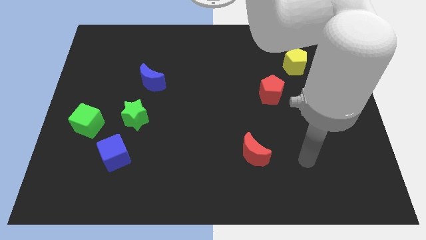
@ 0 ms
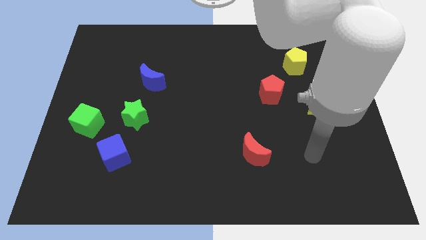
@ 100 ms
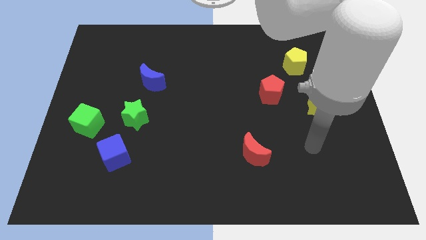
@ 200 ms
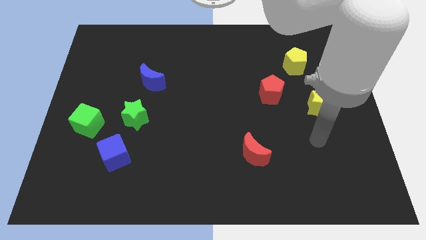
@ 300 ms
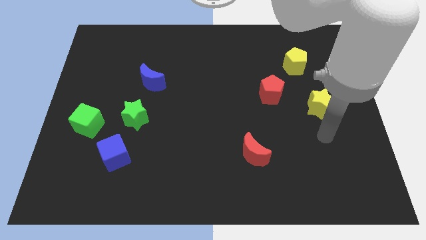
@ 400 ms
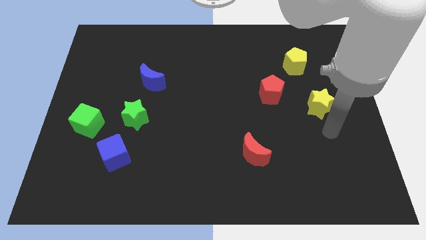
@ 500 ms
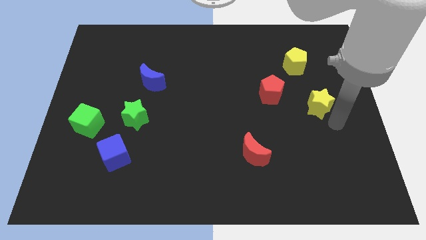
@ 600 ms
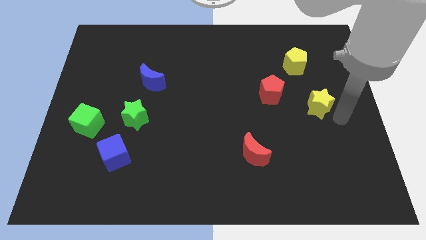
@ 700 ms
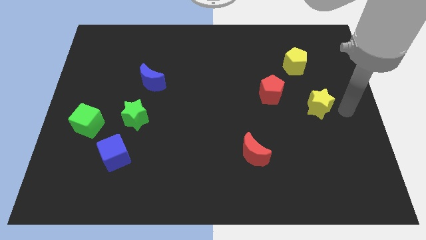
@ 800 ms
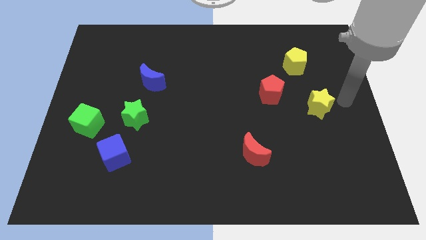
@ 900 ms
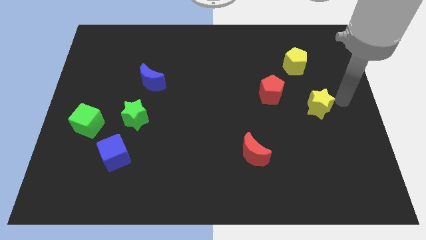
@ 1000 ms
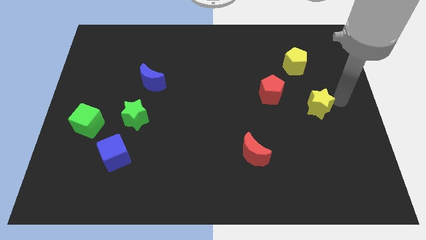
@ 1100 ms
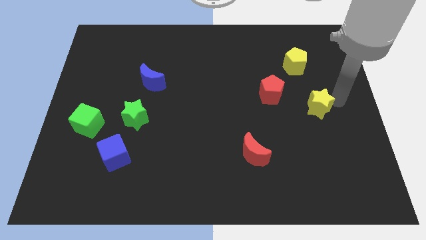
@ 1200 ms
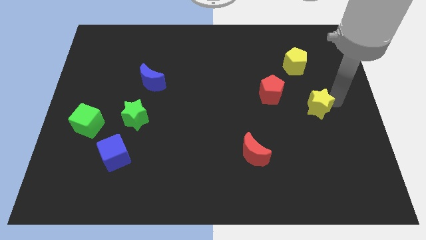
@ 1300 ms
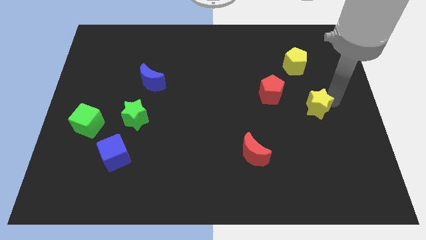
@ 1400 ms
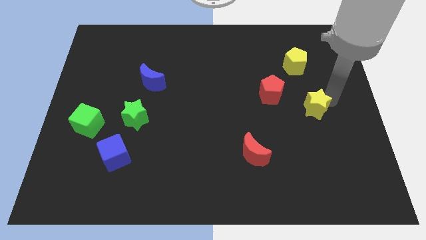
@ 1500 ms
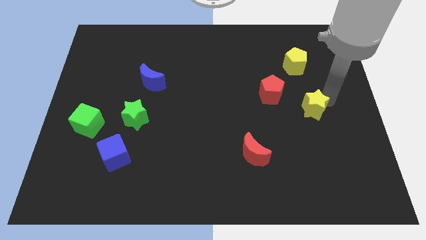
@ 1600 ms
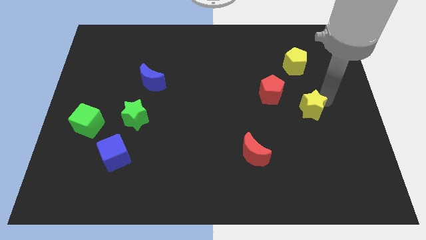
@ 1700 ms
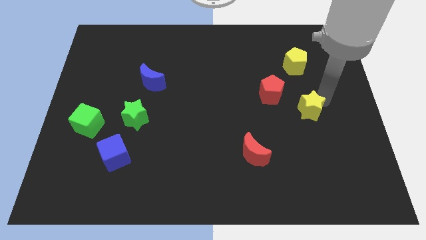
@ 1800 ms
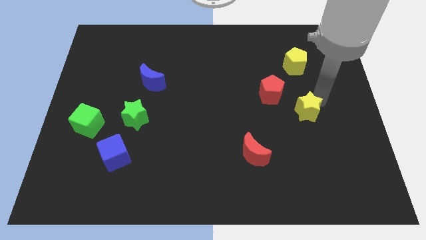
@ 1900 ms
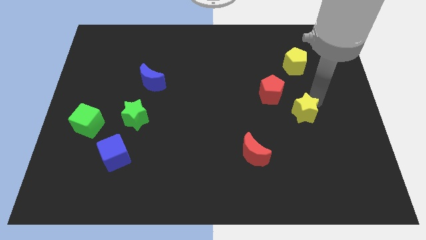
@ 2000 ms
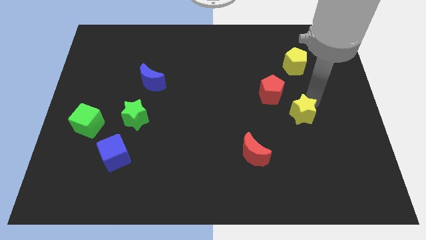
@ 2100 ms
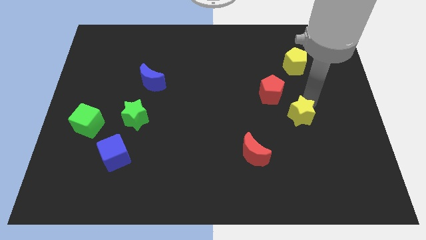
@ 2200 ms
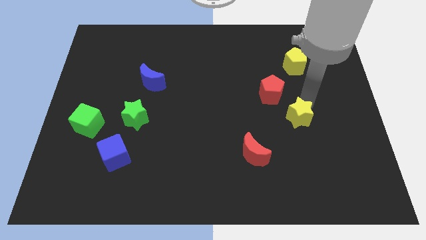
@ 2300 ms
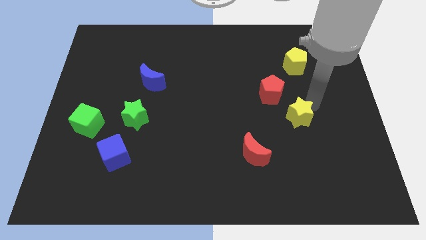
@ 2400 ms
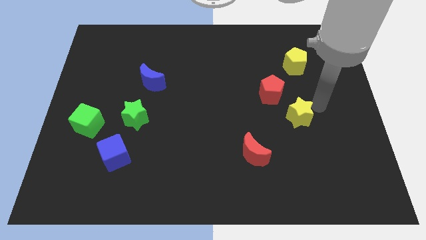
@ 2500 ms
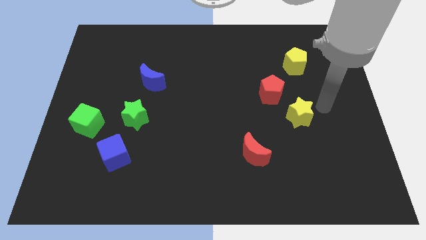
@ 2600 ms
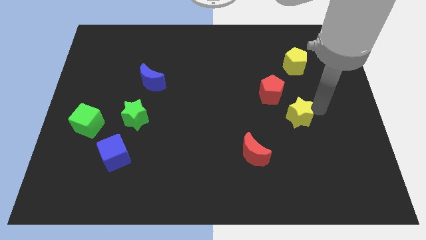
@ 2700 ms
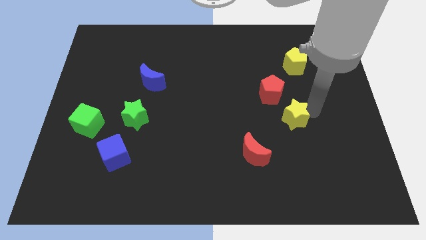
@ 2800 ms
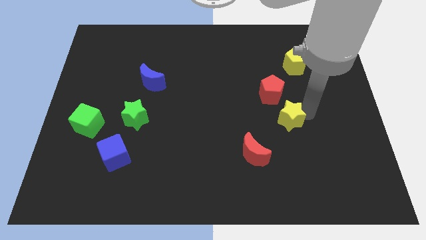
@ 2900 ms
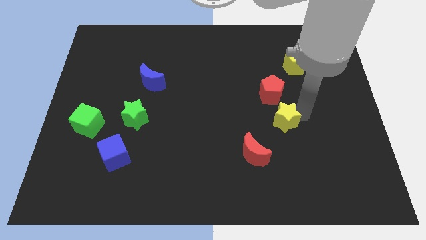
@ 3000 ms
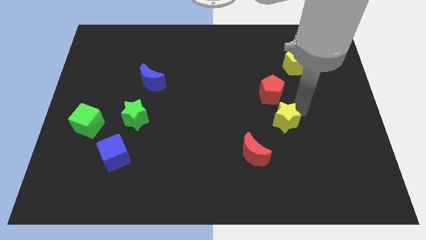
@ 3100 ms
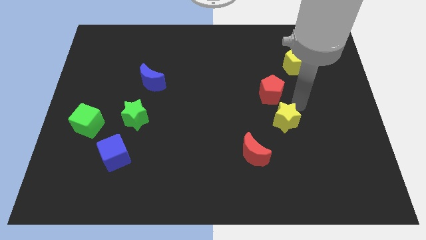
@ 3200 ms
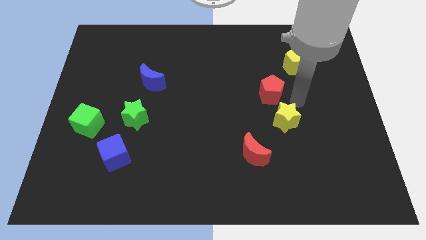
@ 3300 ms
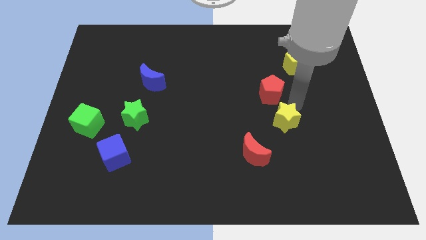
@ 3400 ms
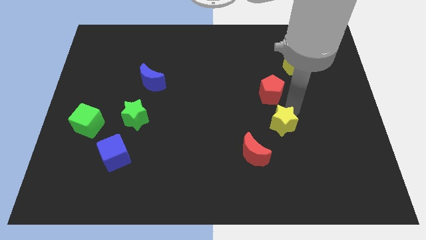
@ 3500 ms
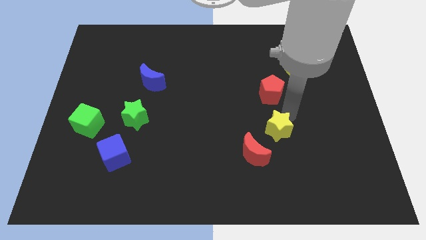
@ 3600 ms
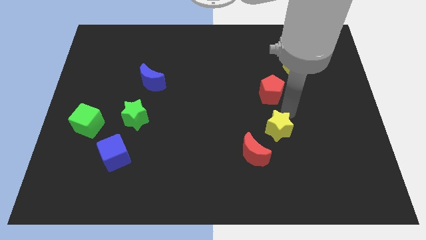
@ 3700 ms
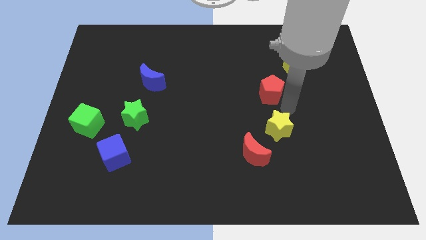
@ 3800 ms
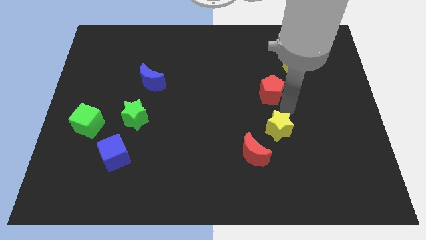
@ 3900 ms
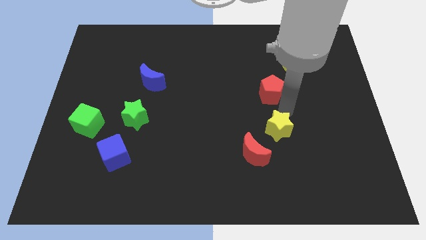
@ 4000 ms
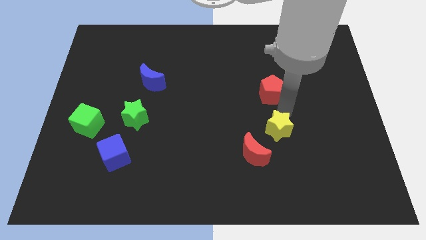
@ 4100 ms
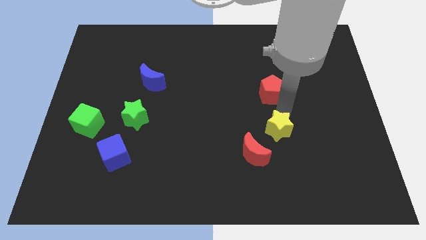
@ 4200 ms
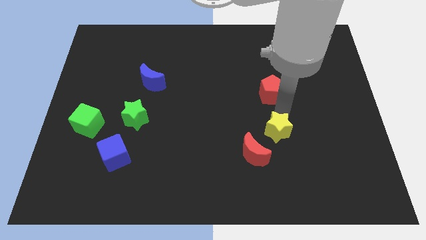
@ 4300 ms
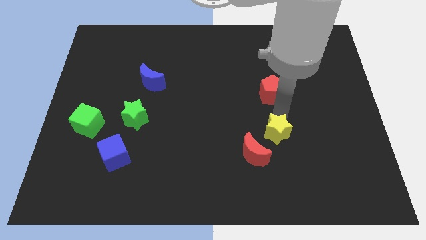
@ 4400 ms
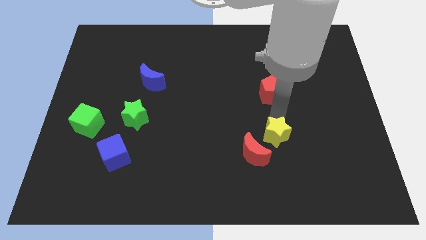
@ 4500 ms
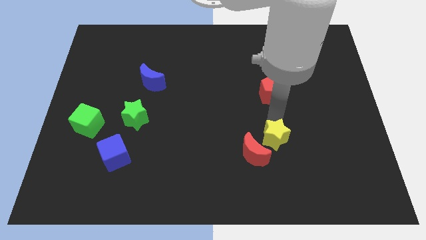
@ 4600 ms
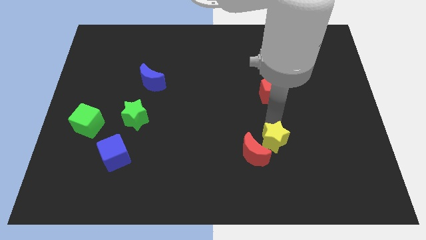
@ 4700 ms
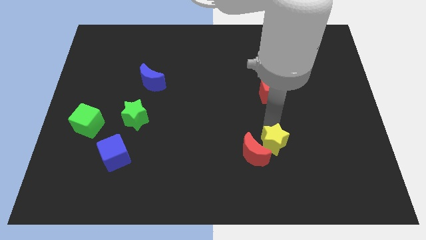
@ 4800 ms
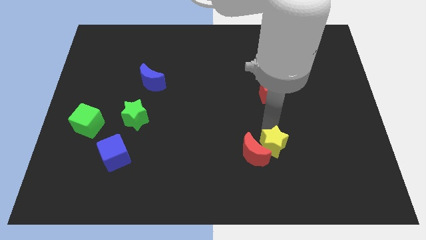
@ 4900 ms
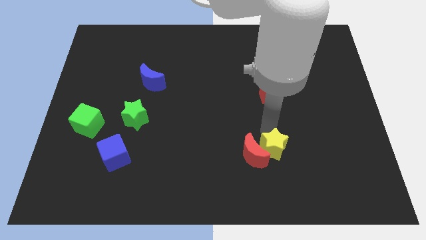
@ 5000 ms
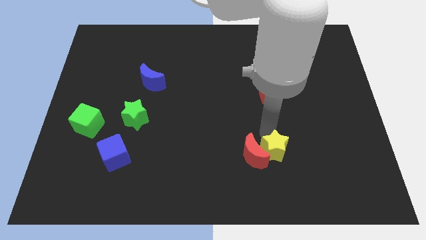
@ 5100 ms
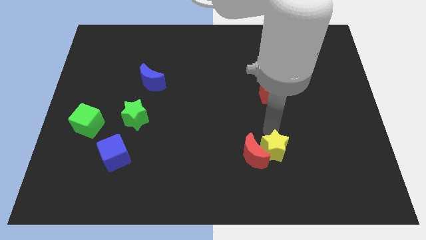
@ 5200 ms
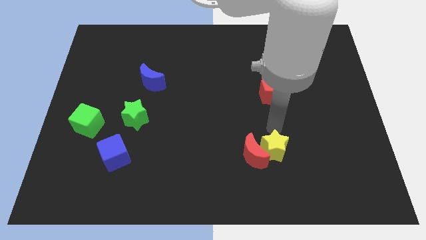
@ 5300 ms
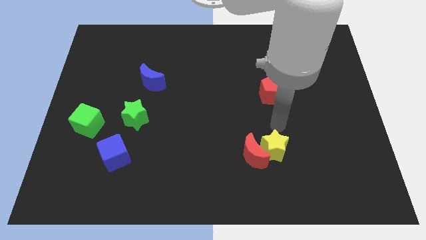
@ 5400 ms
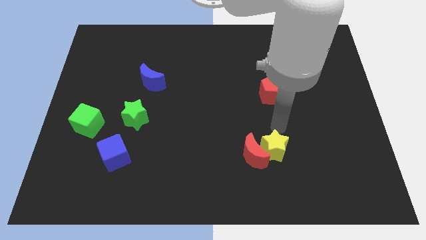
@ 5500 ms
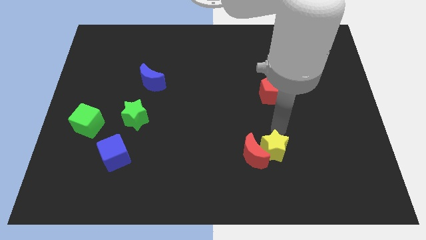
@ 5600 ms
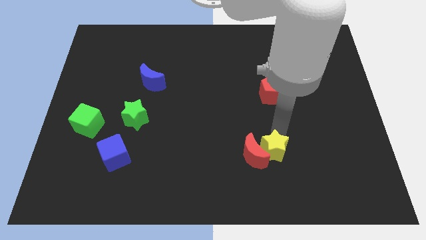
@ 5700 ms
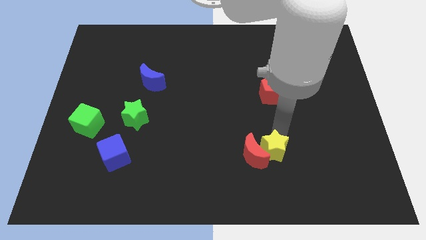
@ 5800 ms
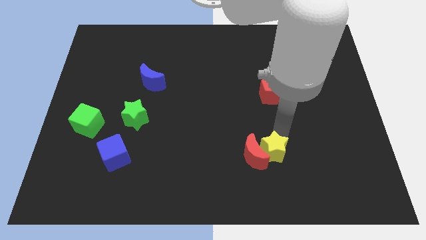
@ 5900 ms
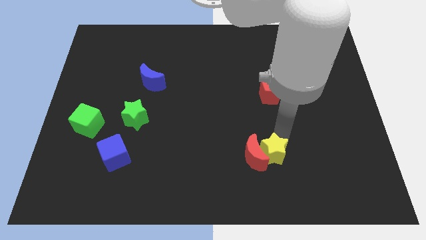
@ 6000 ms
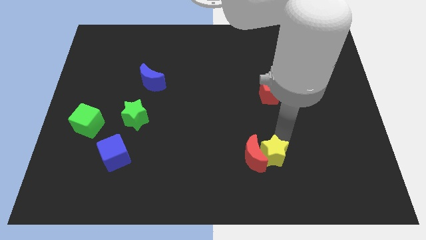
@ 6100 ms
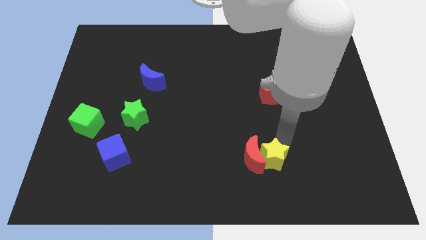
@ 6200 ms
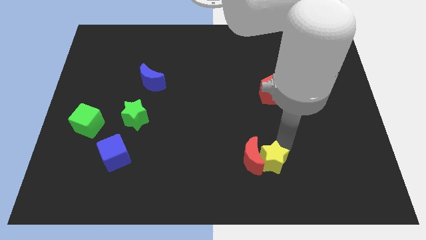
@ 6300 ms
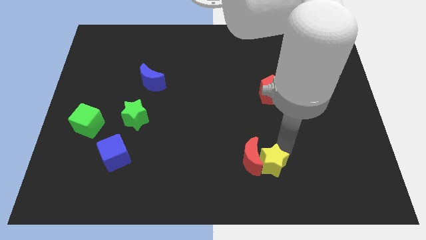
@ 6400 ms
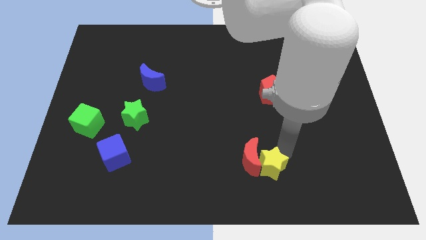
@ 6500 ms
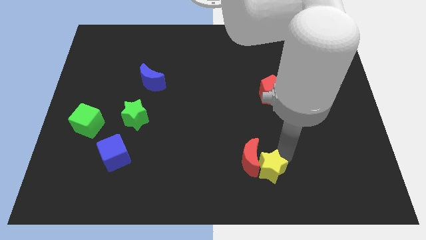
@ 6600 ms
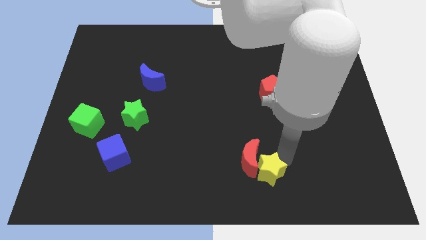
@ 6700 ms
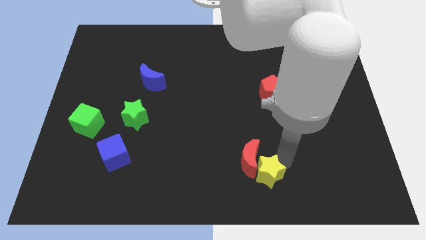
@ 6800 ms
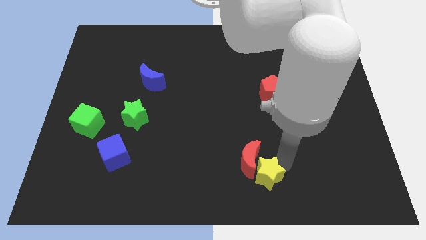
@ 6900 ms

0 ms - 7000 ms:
slide the yellow star to the bottom
